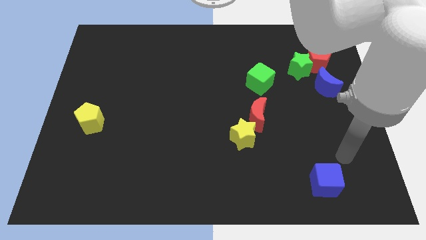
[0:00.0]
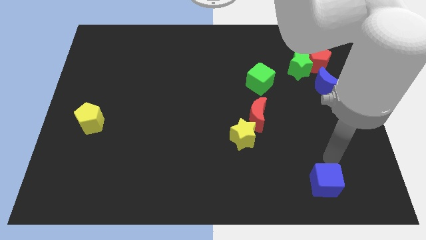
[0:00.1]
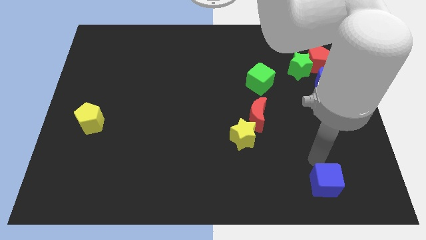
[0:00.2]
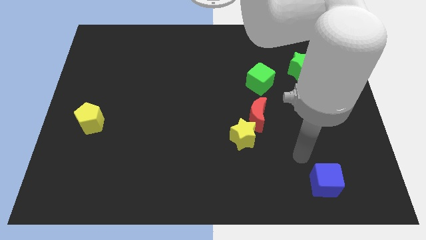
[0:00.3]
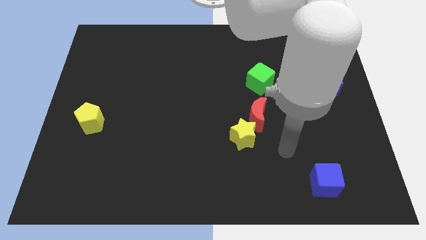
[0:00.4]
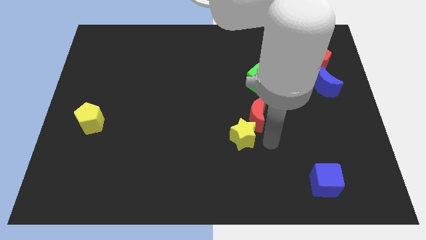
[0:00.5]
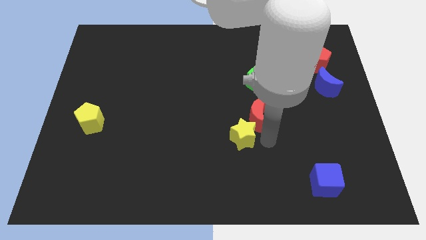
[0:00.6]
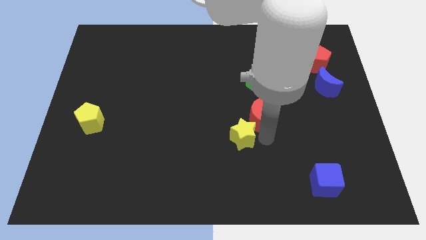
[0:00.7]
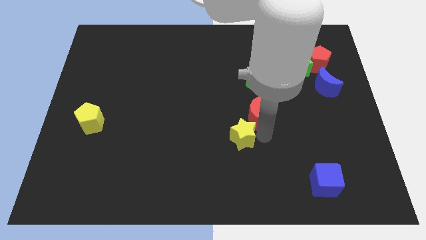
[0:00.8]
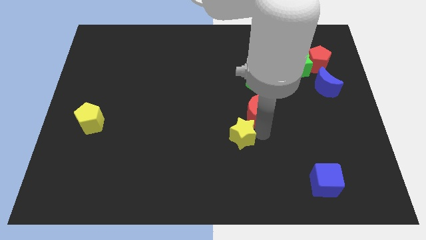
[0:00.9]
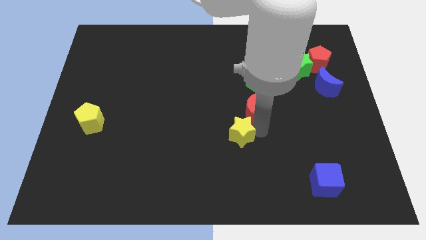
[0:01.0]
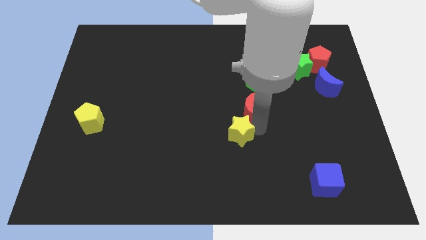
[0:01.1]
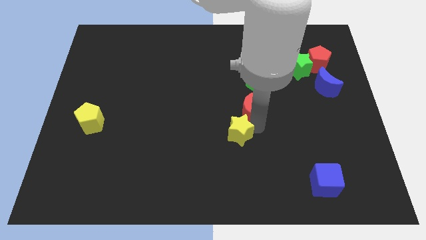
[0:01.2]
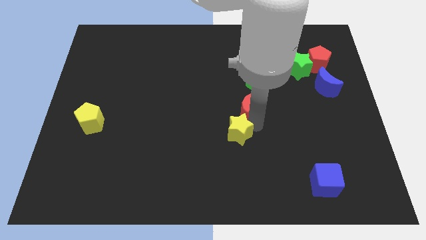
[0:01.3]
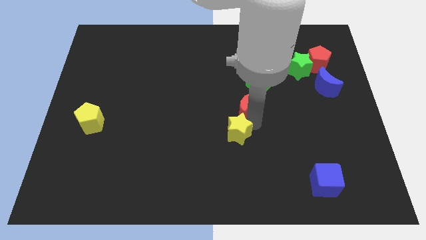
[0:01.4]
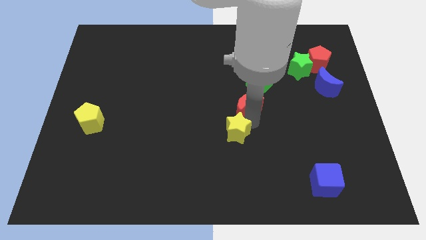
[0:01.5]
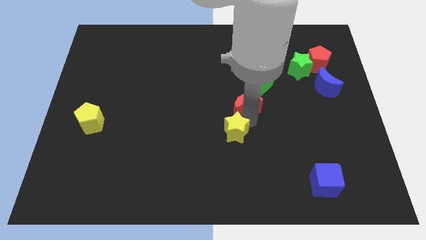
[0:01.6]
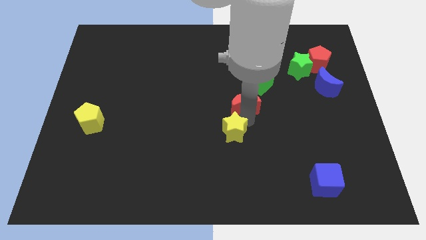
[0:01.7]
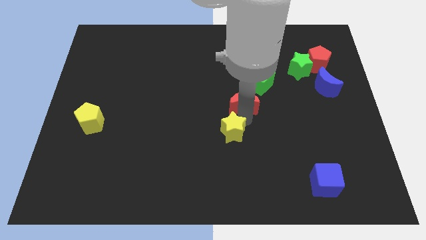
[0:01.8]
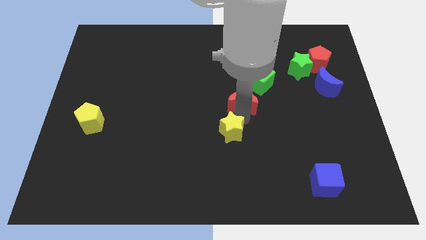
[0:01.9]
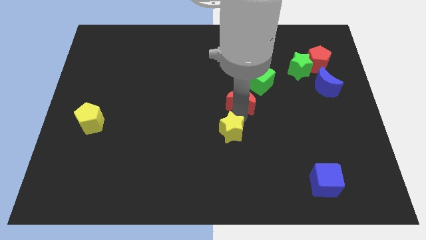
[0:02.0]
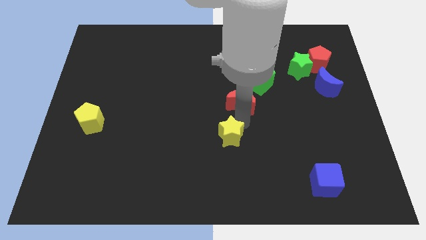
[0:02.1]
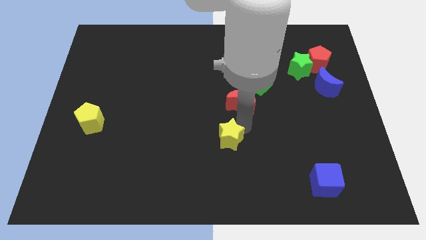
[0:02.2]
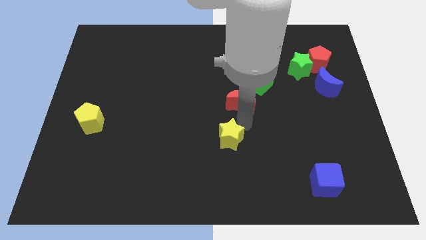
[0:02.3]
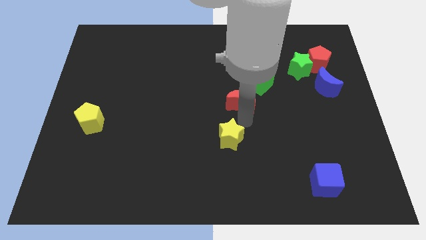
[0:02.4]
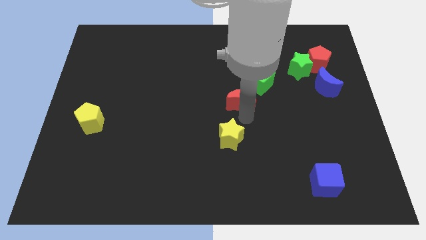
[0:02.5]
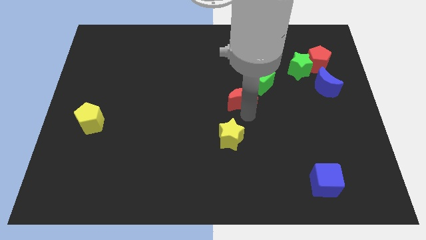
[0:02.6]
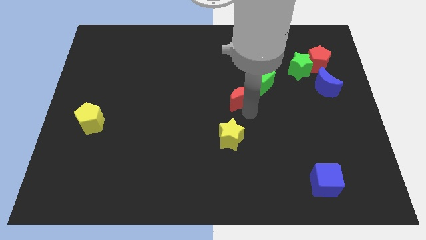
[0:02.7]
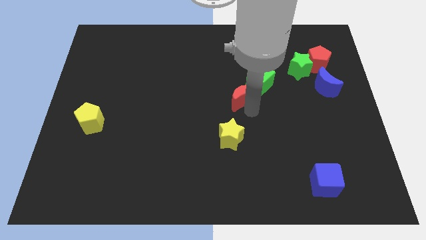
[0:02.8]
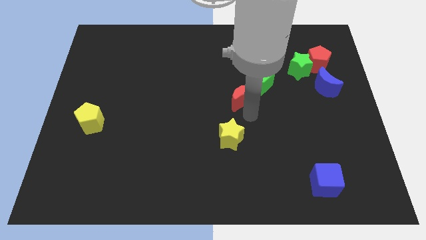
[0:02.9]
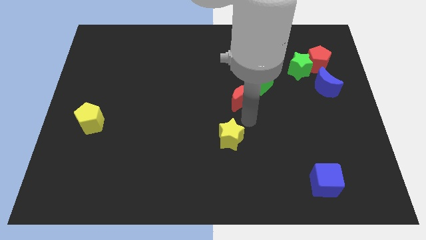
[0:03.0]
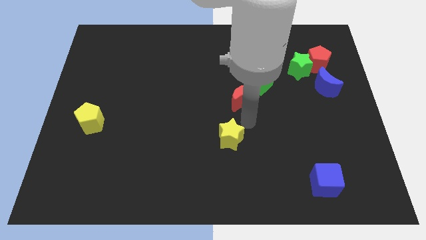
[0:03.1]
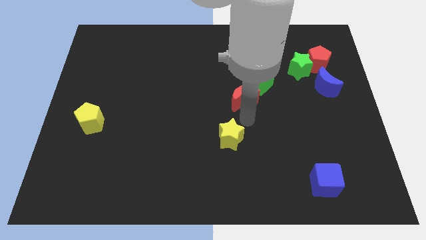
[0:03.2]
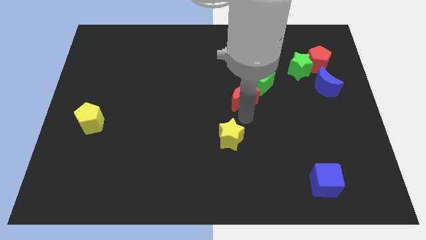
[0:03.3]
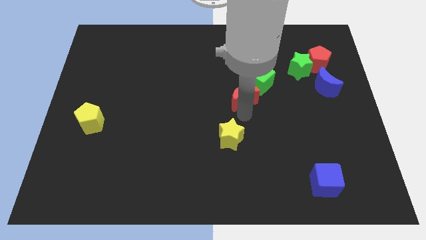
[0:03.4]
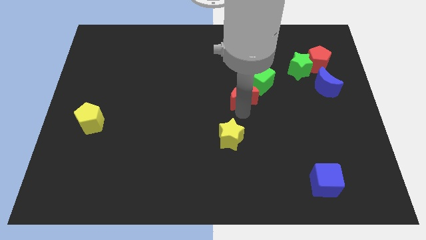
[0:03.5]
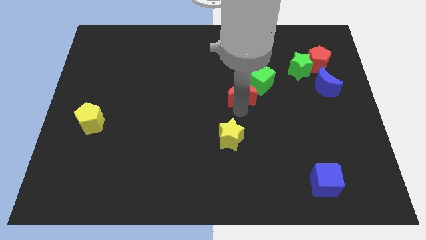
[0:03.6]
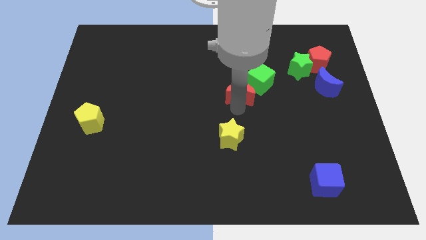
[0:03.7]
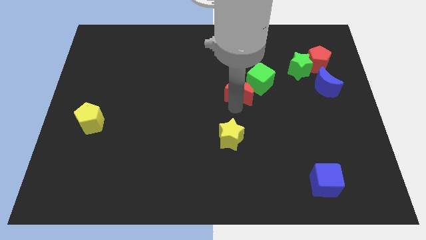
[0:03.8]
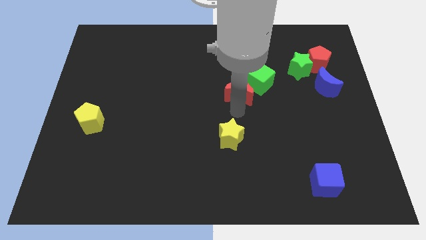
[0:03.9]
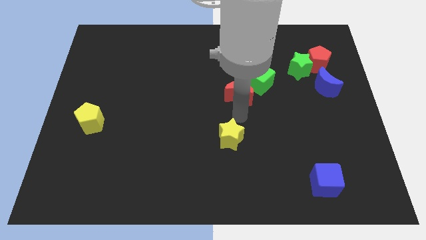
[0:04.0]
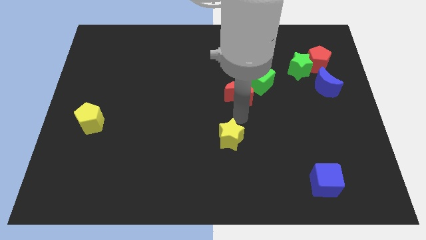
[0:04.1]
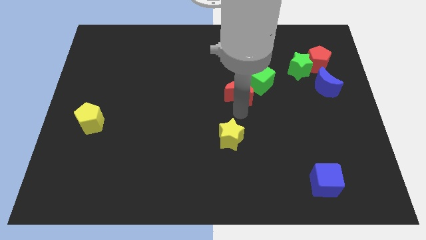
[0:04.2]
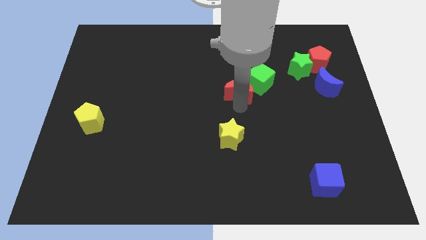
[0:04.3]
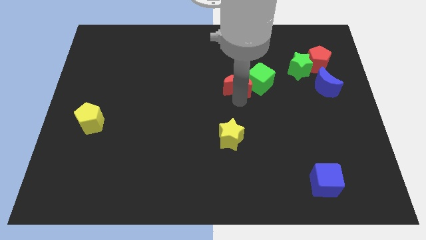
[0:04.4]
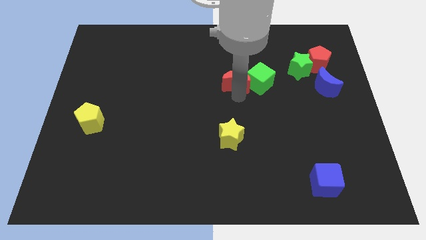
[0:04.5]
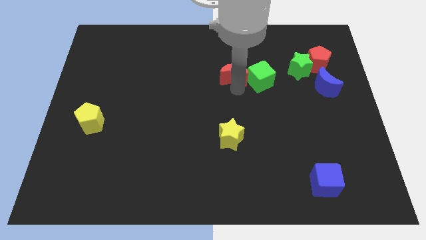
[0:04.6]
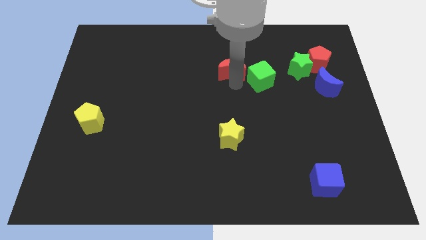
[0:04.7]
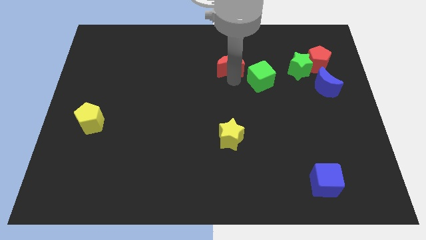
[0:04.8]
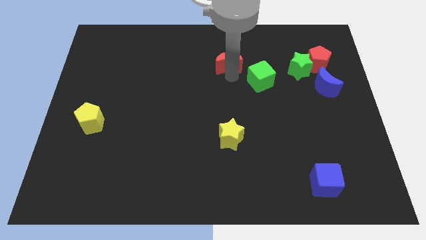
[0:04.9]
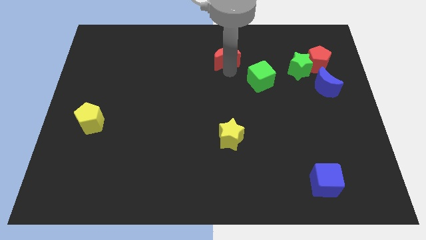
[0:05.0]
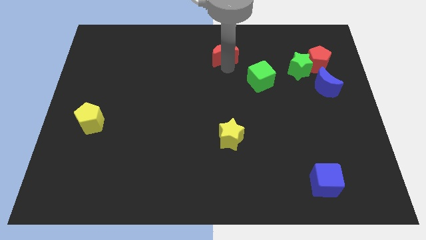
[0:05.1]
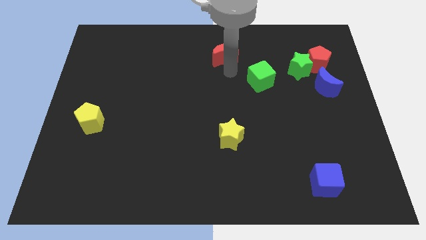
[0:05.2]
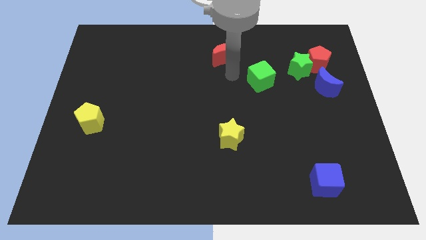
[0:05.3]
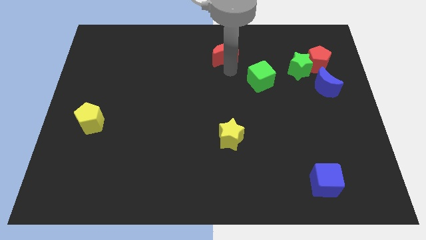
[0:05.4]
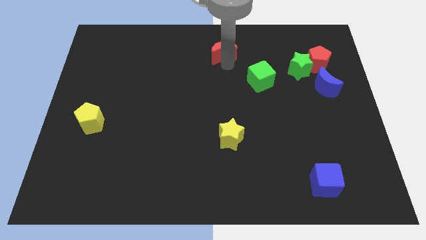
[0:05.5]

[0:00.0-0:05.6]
slide the red moon to the top

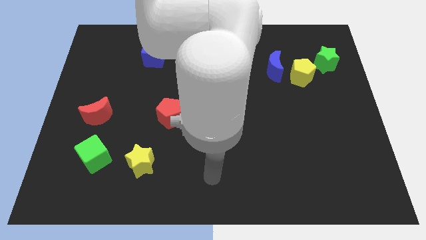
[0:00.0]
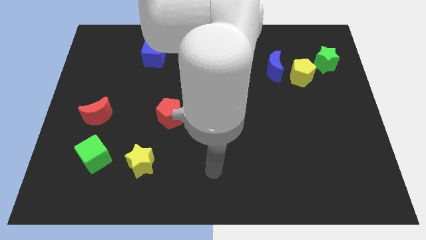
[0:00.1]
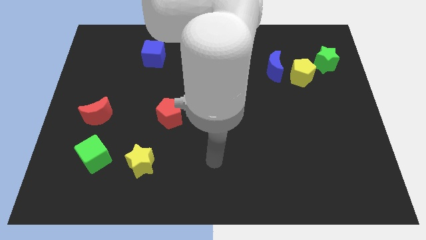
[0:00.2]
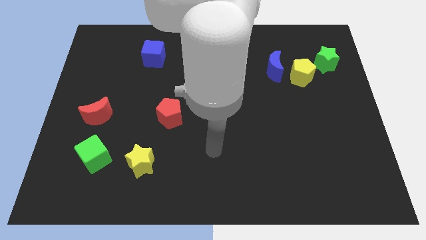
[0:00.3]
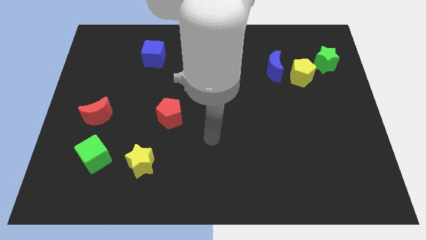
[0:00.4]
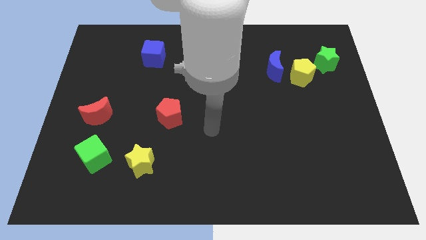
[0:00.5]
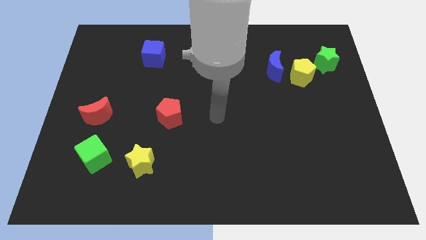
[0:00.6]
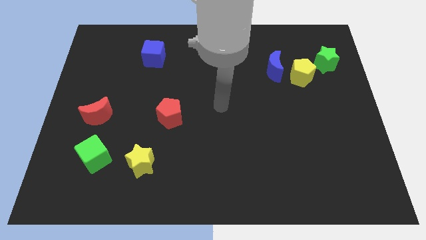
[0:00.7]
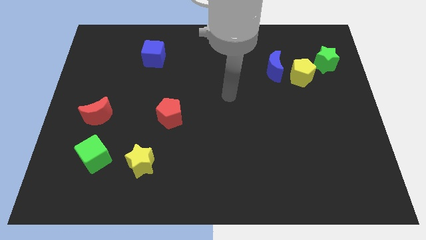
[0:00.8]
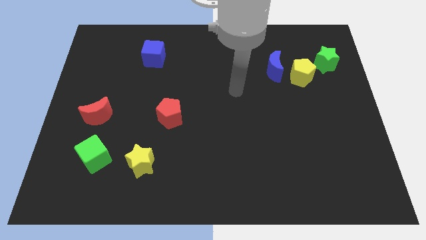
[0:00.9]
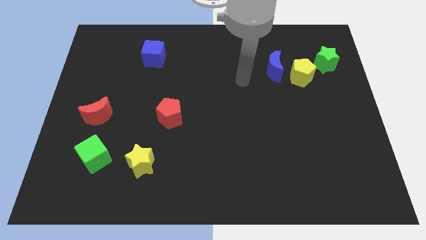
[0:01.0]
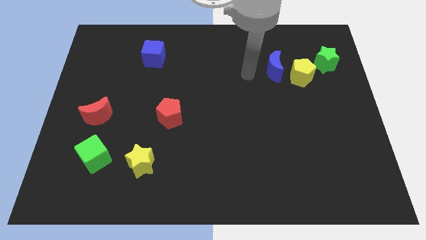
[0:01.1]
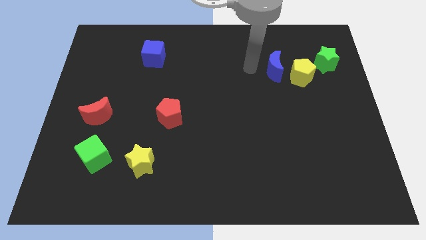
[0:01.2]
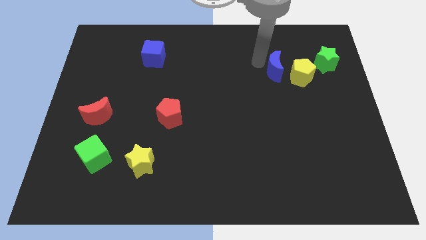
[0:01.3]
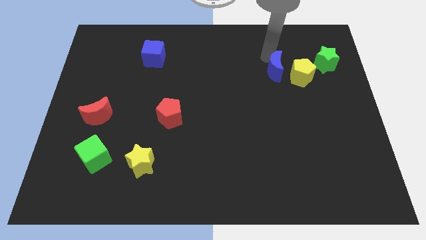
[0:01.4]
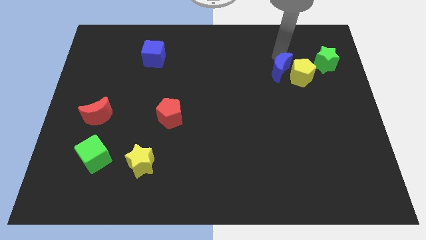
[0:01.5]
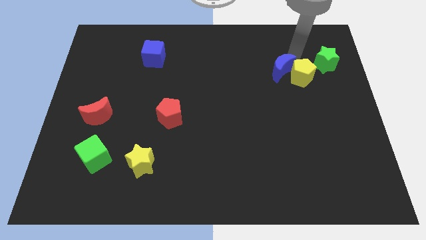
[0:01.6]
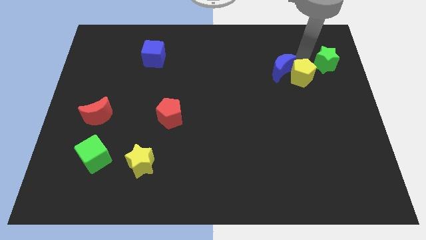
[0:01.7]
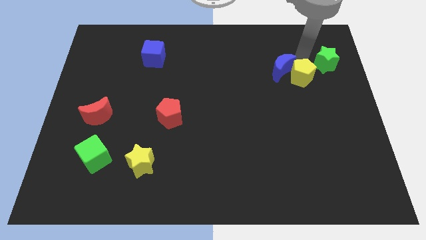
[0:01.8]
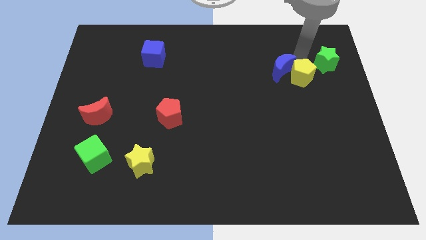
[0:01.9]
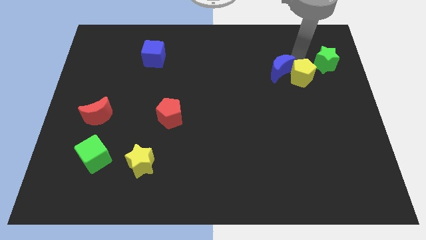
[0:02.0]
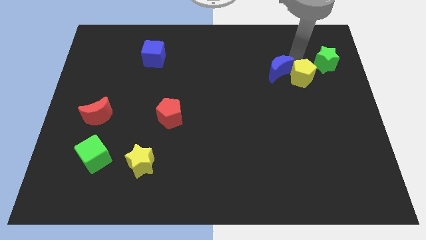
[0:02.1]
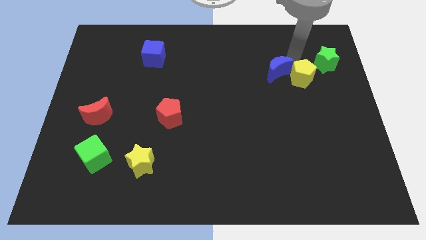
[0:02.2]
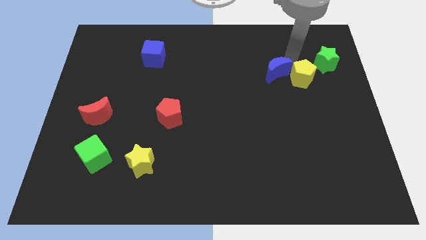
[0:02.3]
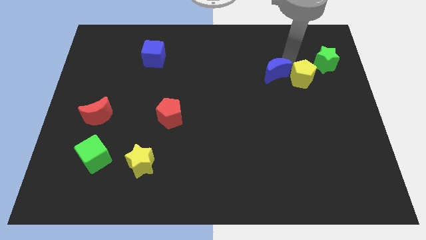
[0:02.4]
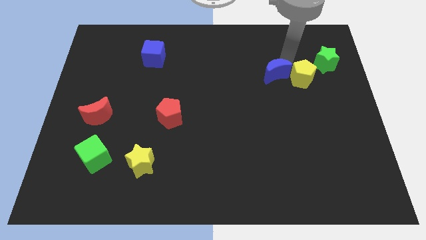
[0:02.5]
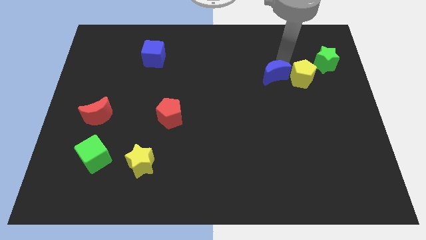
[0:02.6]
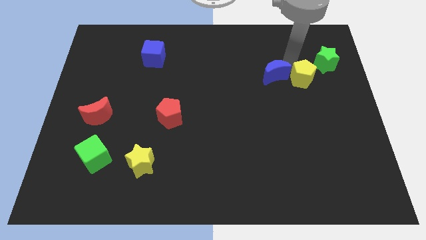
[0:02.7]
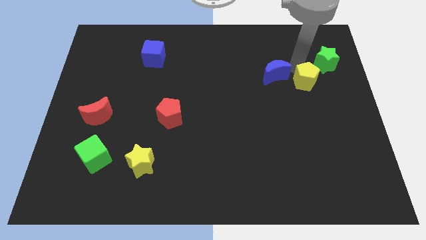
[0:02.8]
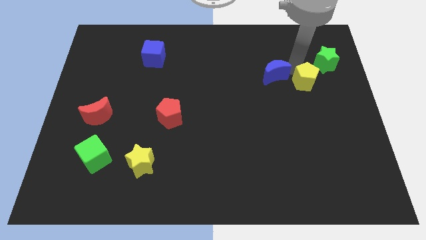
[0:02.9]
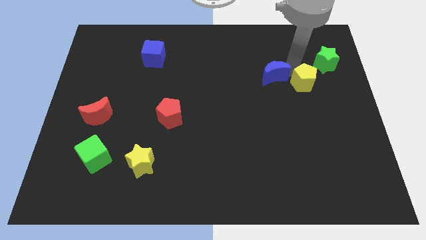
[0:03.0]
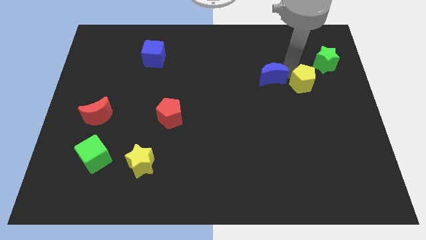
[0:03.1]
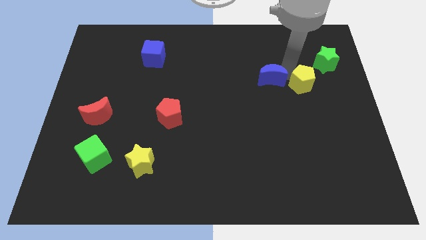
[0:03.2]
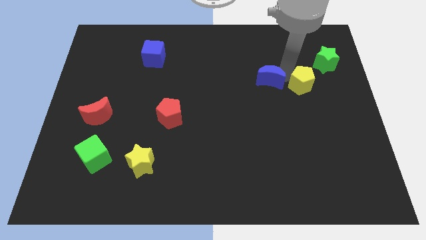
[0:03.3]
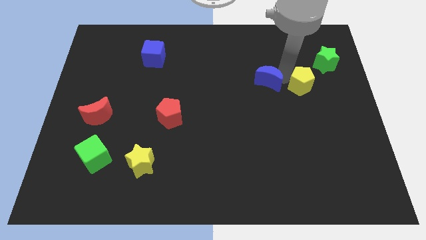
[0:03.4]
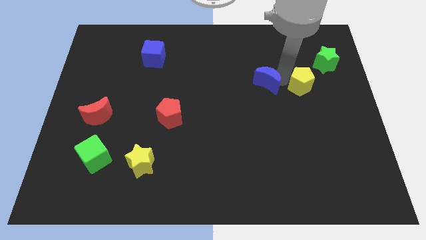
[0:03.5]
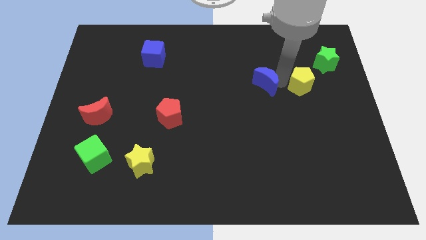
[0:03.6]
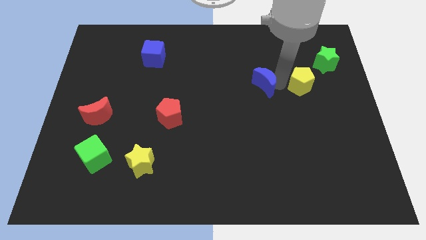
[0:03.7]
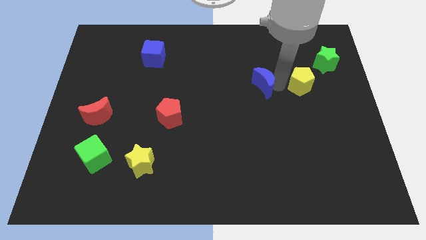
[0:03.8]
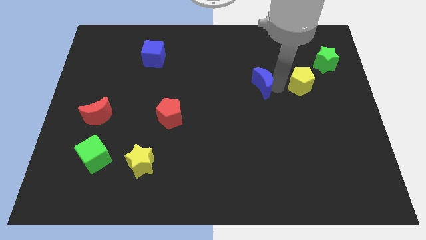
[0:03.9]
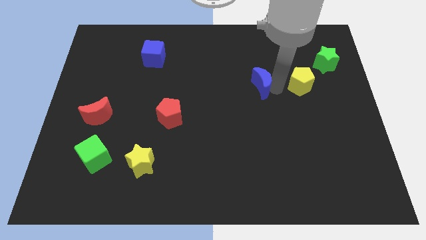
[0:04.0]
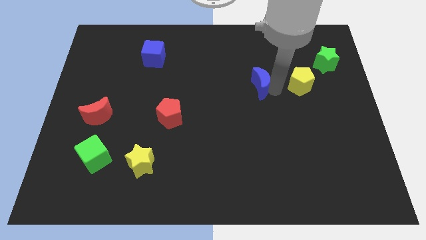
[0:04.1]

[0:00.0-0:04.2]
push the blue moon to the center
